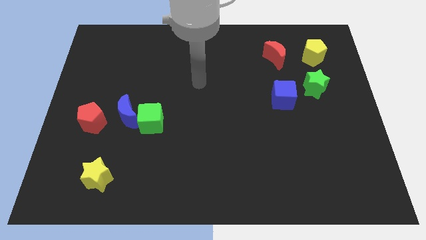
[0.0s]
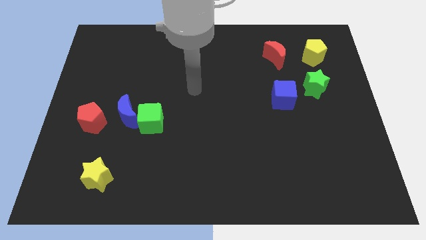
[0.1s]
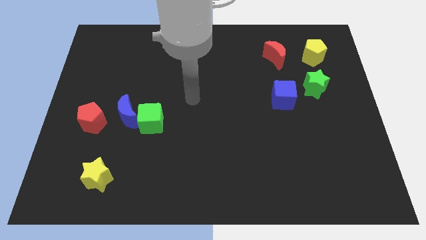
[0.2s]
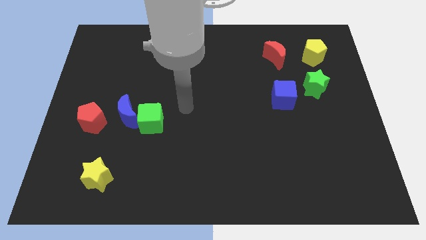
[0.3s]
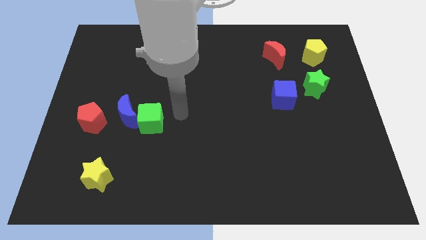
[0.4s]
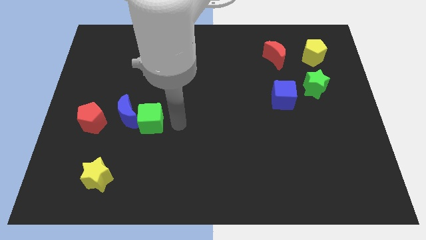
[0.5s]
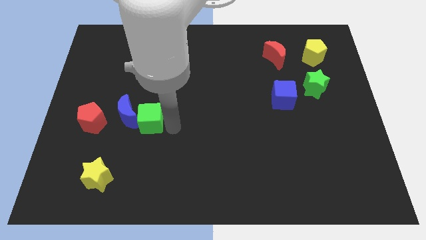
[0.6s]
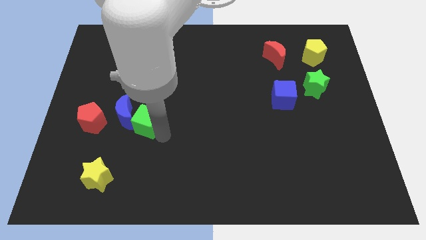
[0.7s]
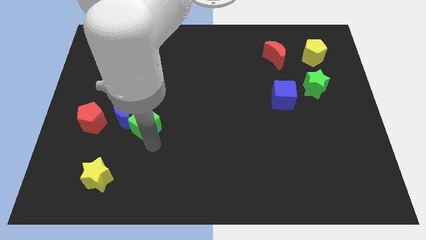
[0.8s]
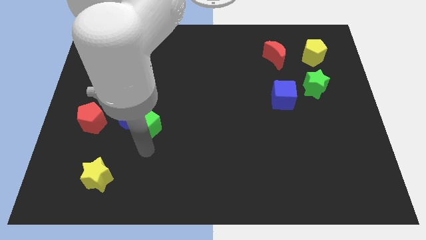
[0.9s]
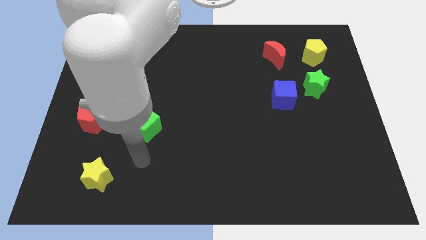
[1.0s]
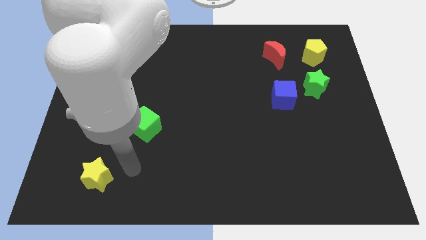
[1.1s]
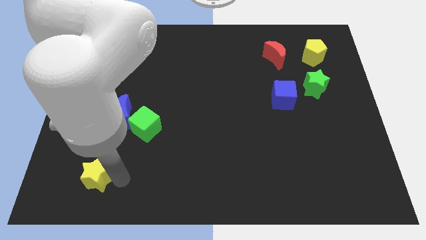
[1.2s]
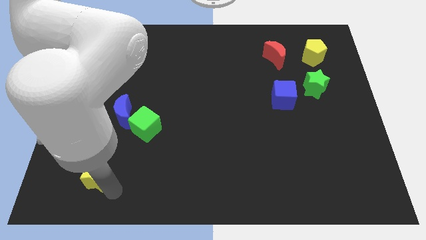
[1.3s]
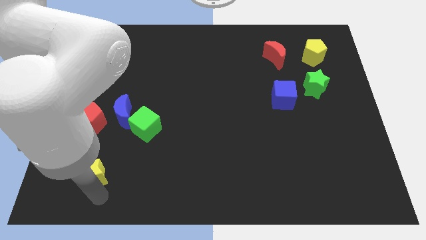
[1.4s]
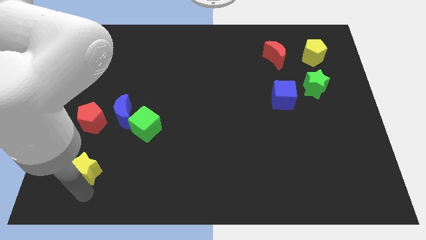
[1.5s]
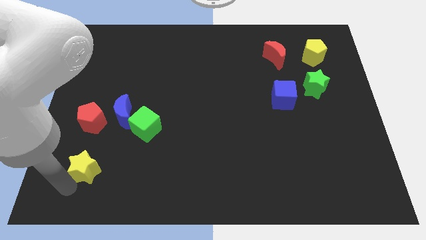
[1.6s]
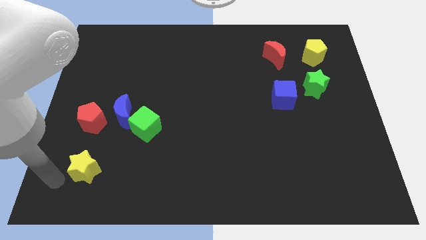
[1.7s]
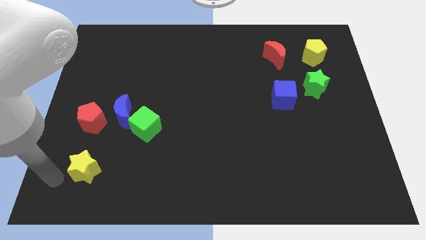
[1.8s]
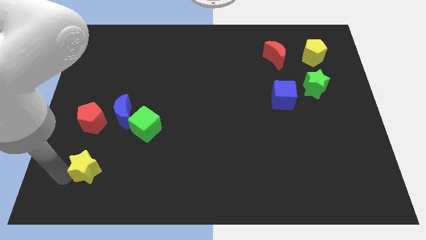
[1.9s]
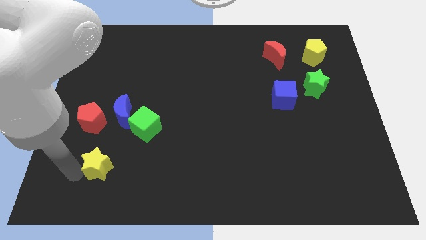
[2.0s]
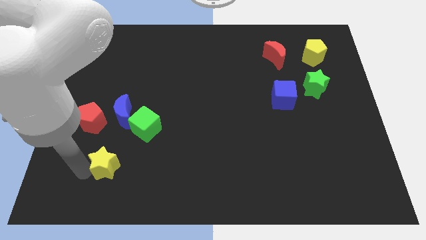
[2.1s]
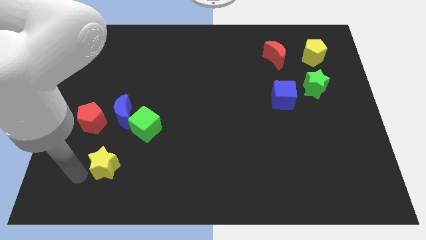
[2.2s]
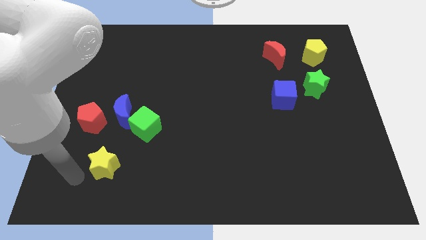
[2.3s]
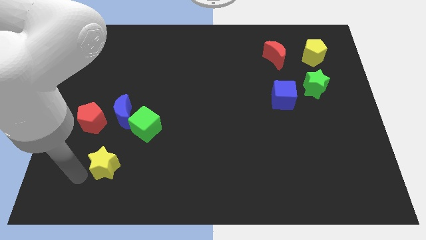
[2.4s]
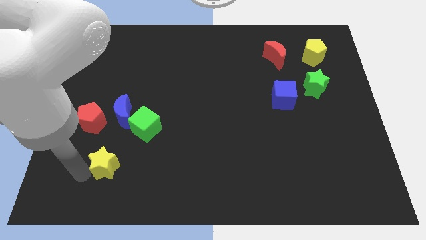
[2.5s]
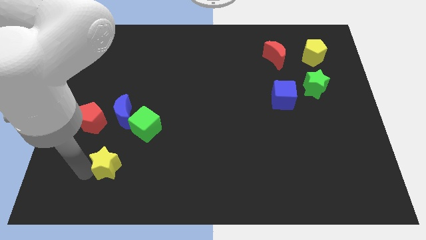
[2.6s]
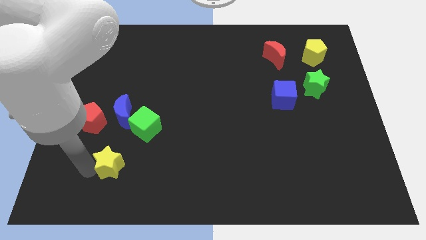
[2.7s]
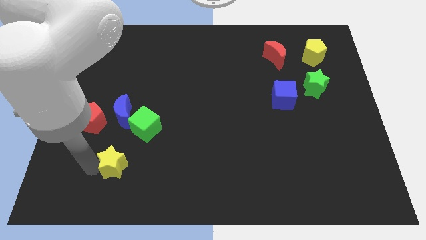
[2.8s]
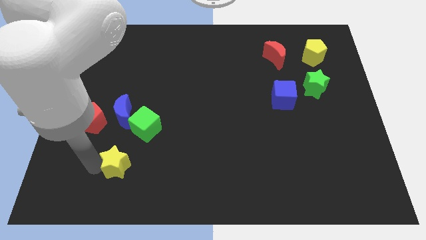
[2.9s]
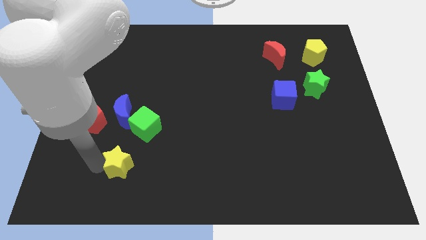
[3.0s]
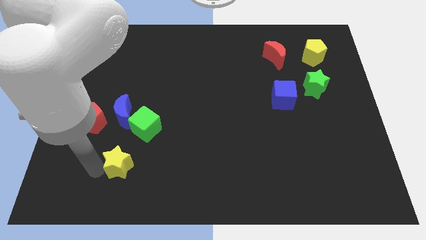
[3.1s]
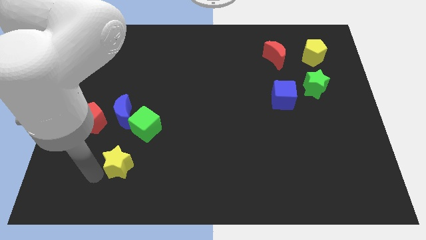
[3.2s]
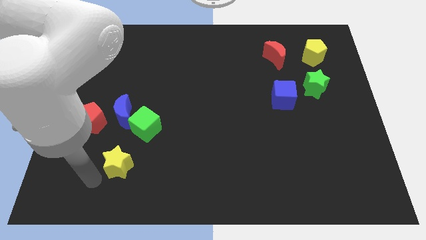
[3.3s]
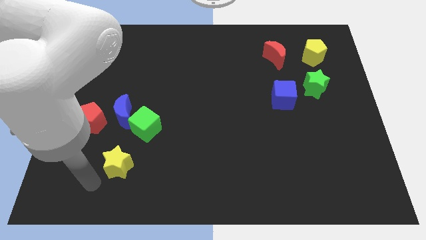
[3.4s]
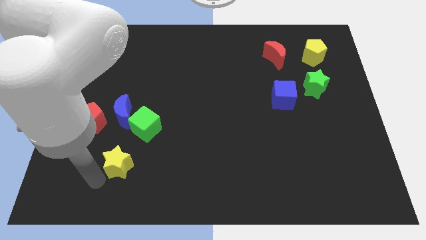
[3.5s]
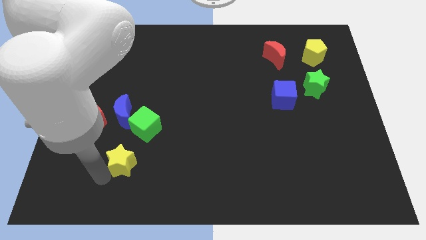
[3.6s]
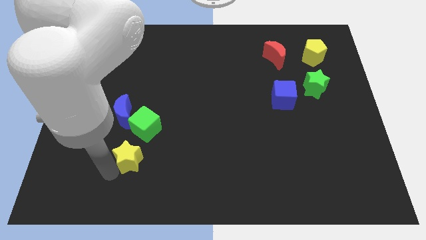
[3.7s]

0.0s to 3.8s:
slide the yellow star diagonally up and to the right a bit

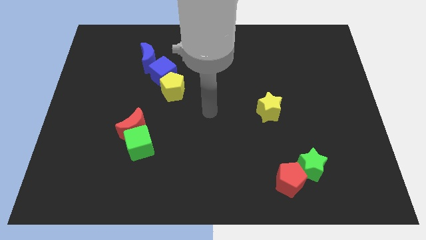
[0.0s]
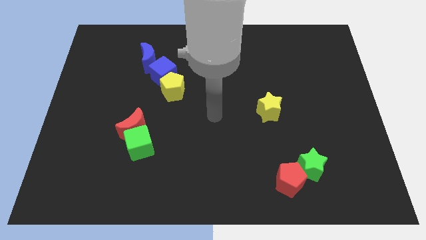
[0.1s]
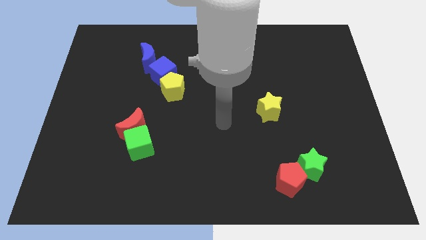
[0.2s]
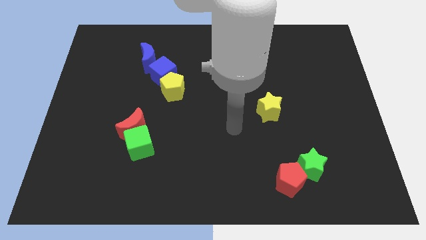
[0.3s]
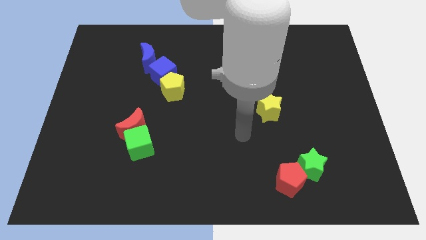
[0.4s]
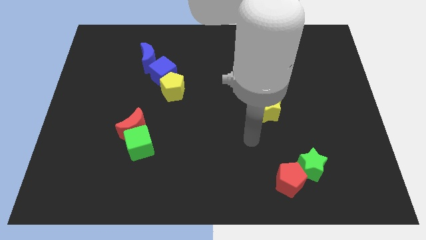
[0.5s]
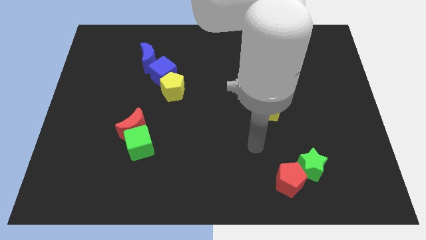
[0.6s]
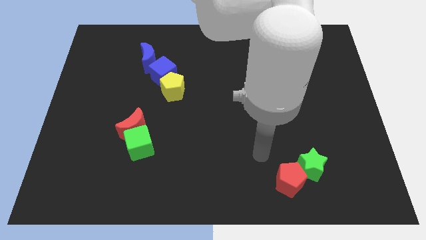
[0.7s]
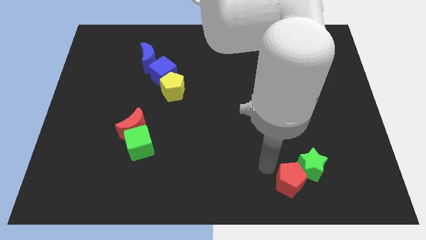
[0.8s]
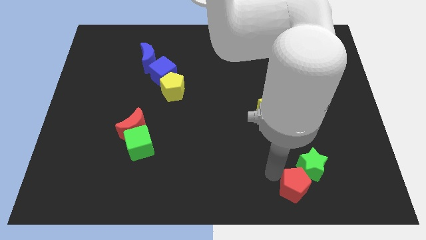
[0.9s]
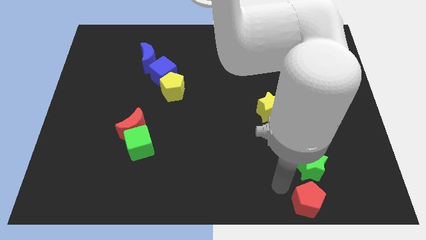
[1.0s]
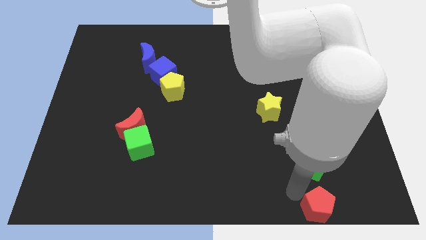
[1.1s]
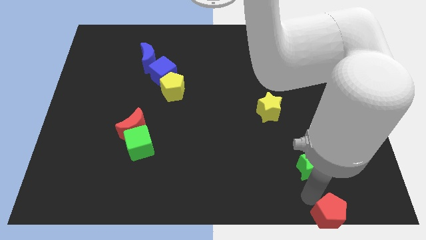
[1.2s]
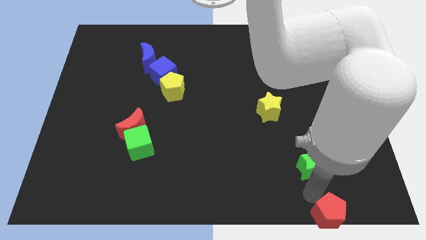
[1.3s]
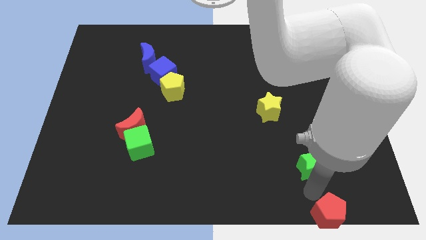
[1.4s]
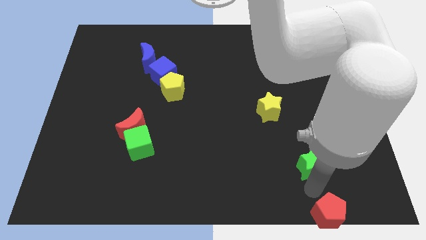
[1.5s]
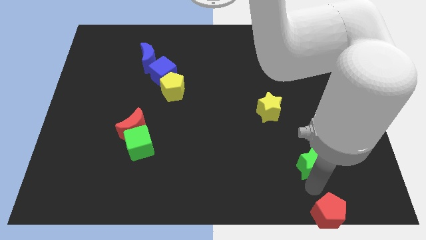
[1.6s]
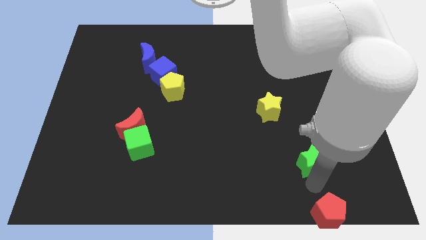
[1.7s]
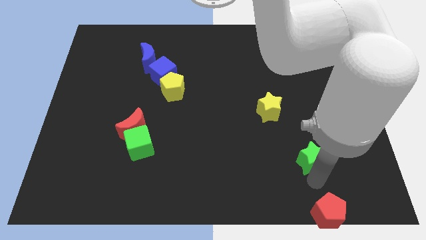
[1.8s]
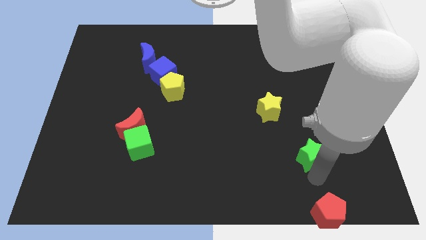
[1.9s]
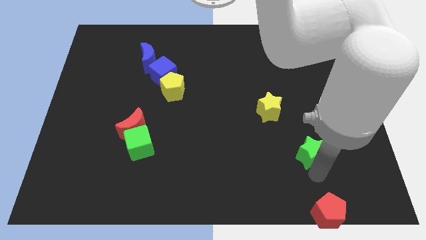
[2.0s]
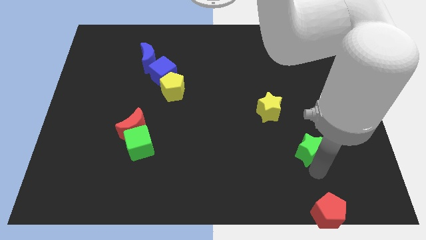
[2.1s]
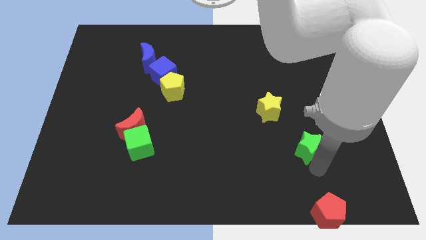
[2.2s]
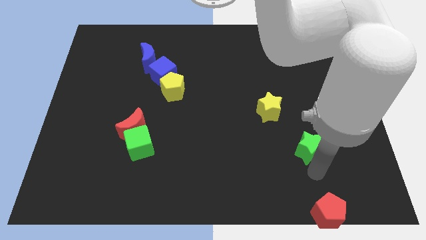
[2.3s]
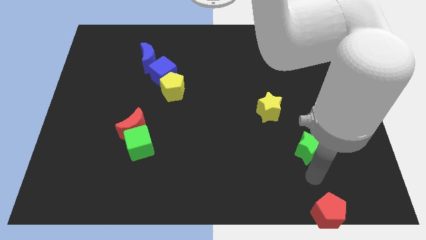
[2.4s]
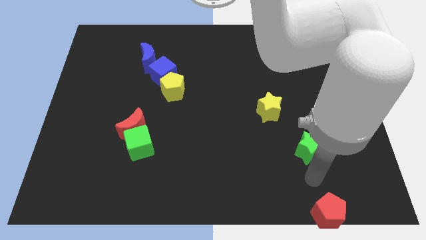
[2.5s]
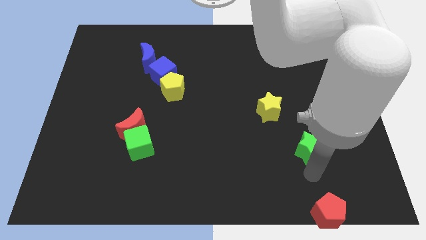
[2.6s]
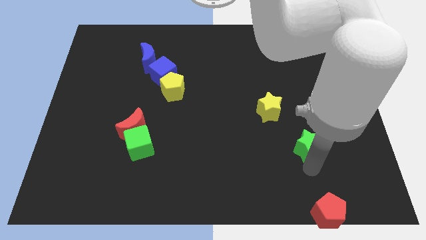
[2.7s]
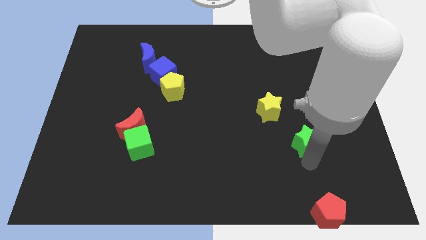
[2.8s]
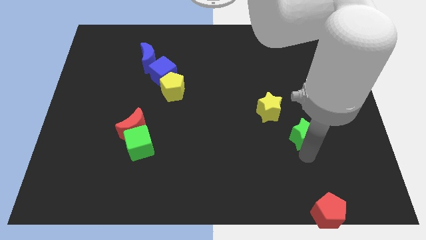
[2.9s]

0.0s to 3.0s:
push the green star a little upwards

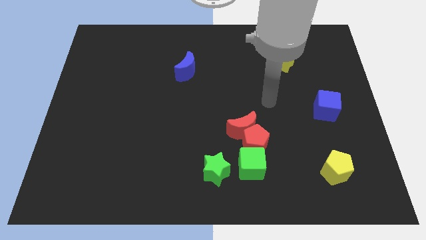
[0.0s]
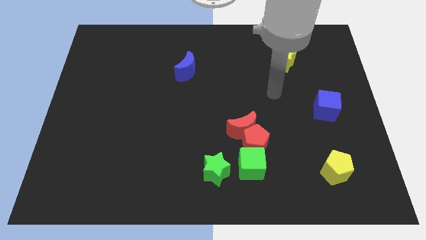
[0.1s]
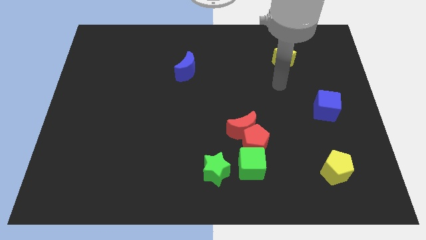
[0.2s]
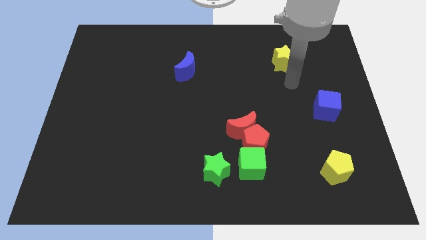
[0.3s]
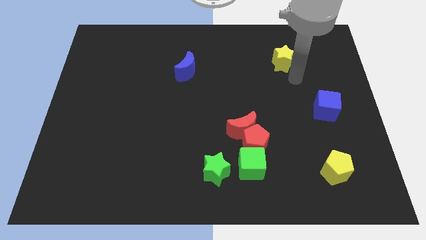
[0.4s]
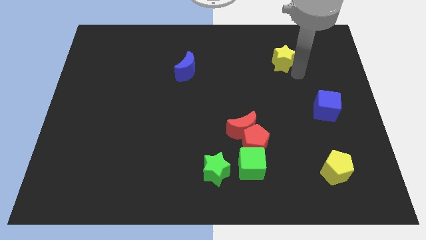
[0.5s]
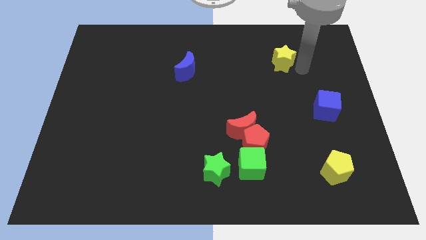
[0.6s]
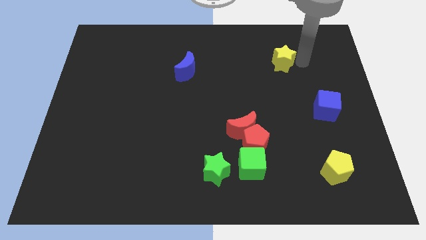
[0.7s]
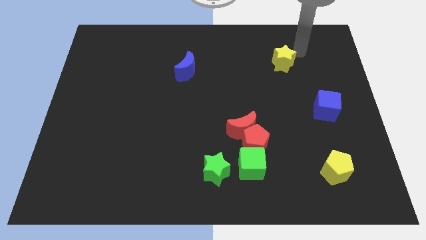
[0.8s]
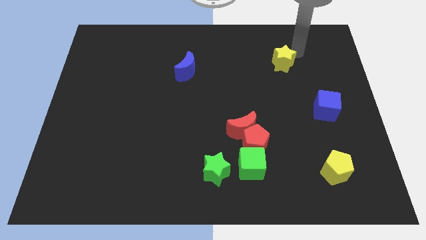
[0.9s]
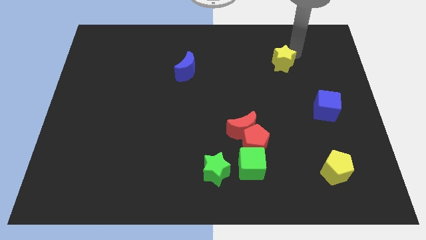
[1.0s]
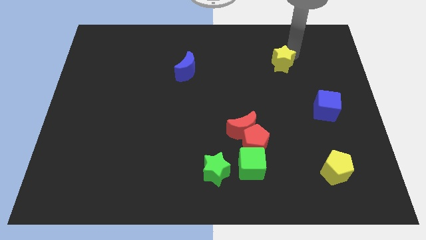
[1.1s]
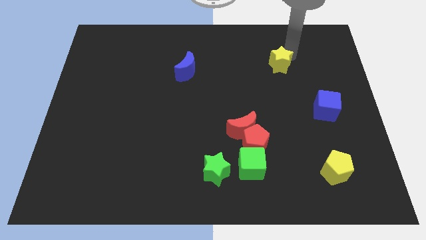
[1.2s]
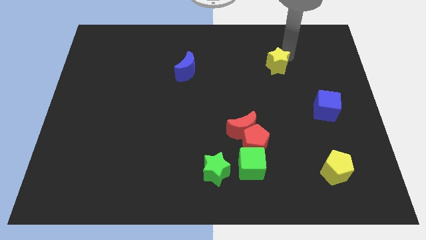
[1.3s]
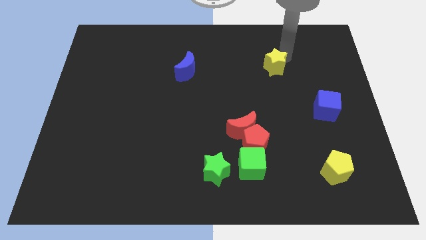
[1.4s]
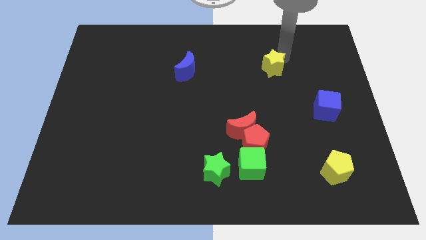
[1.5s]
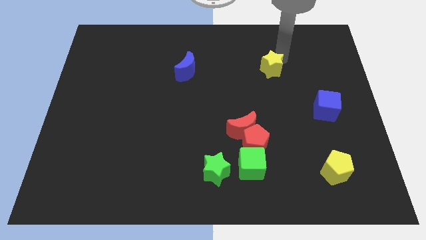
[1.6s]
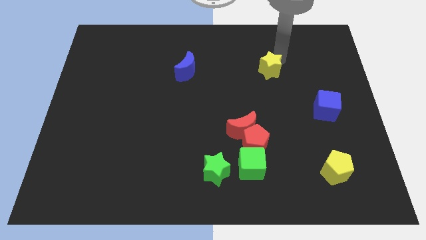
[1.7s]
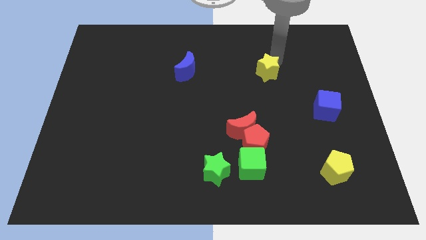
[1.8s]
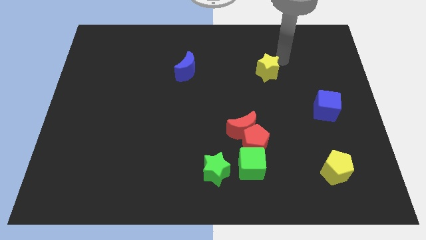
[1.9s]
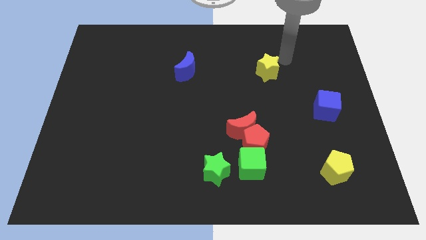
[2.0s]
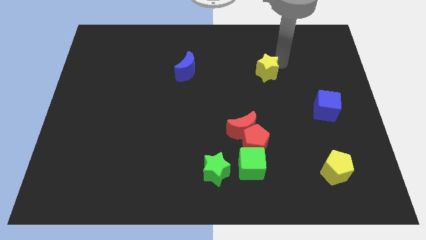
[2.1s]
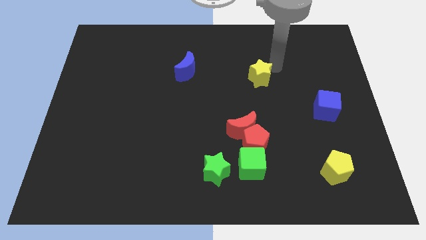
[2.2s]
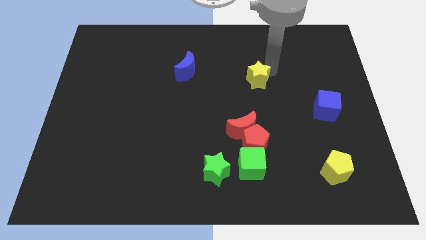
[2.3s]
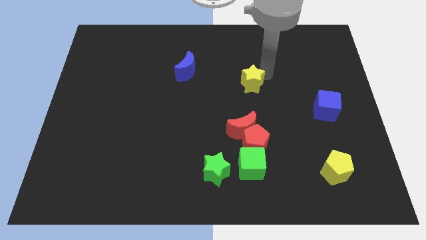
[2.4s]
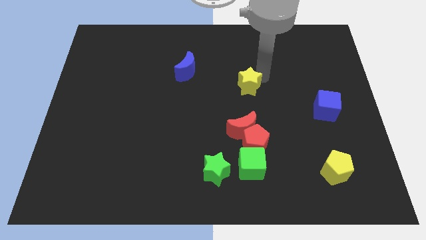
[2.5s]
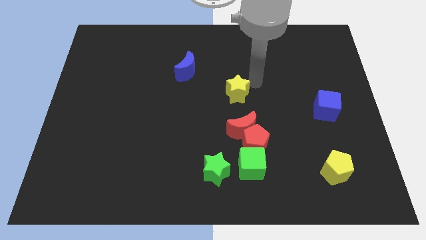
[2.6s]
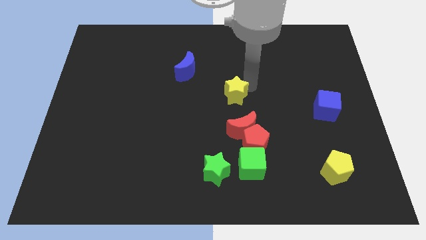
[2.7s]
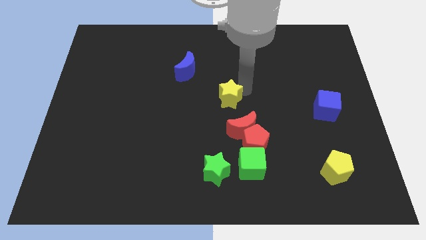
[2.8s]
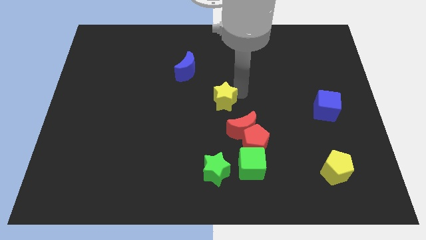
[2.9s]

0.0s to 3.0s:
slide the yellow star downwards and to the left diagonally
